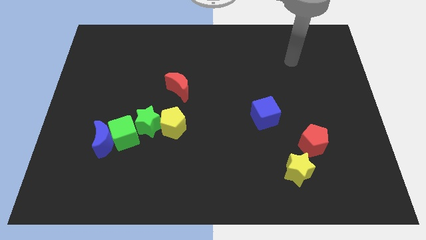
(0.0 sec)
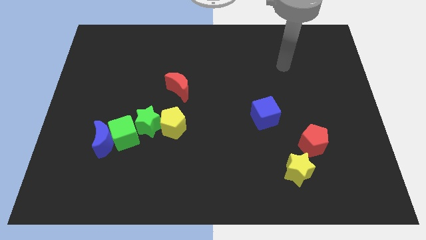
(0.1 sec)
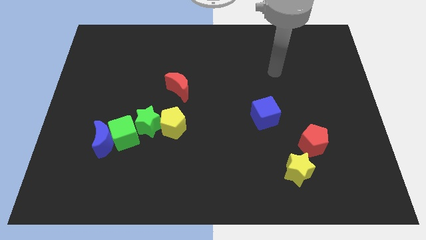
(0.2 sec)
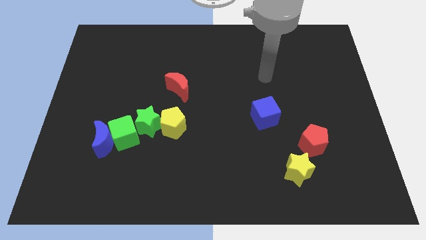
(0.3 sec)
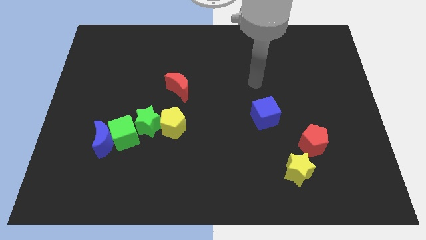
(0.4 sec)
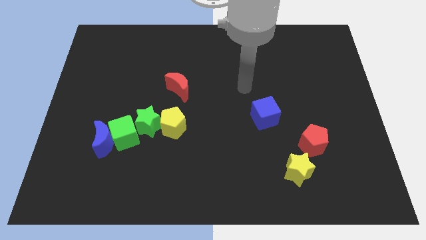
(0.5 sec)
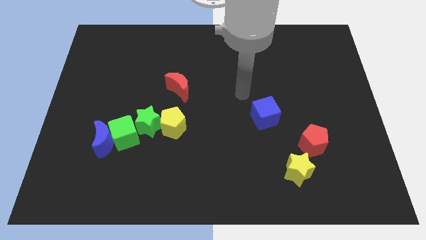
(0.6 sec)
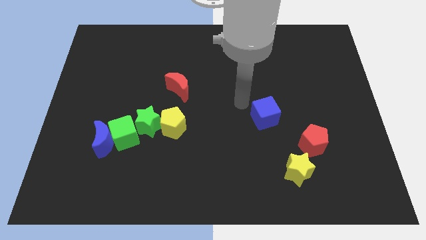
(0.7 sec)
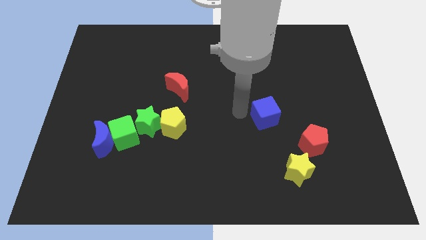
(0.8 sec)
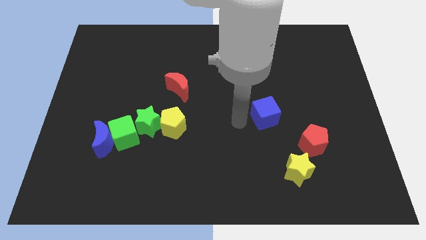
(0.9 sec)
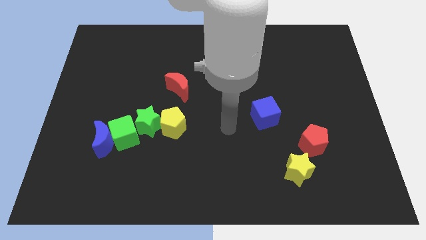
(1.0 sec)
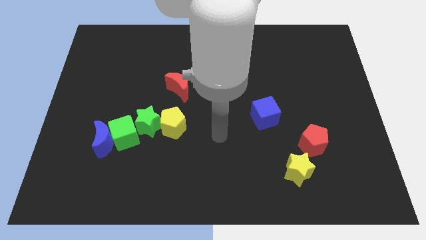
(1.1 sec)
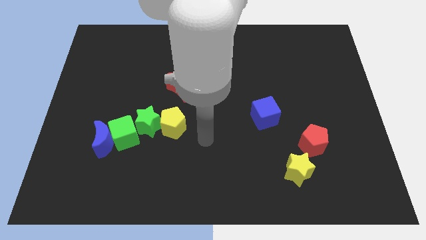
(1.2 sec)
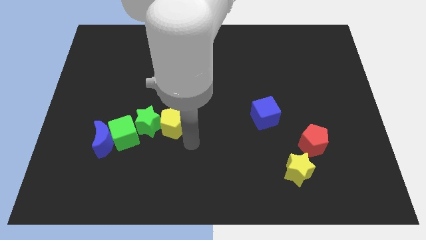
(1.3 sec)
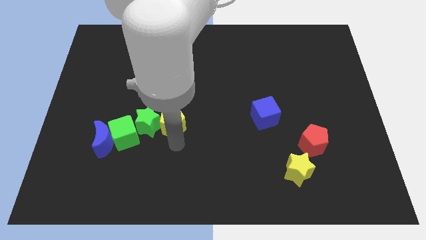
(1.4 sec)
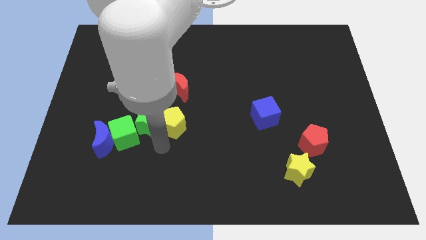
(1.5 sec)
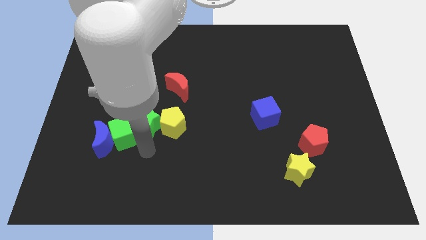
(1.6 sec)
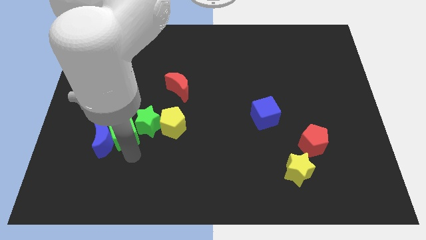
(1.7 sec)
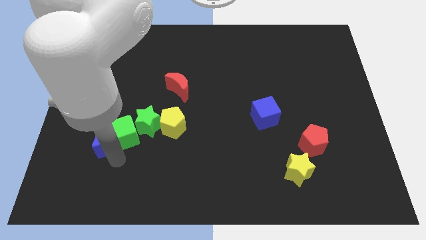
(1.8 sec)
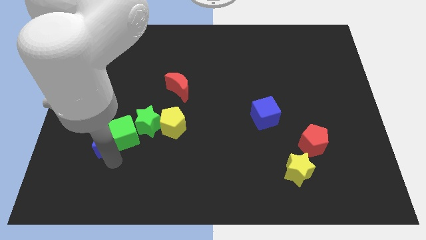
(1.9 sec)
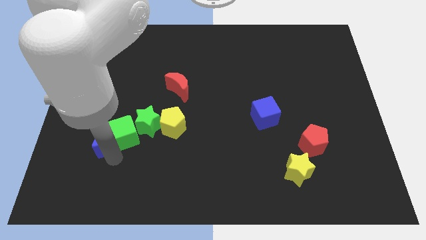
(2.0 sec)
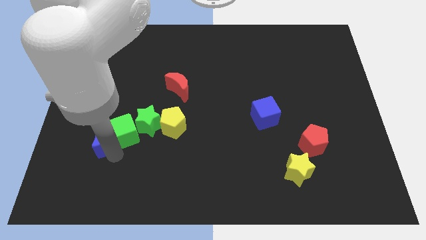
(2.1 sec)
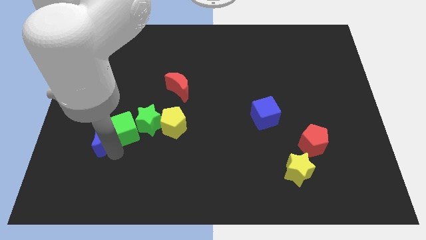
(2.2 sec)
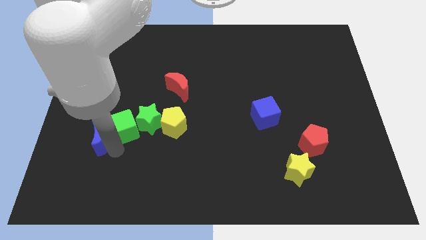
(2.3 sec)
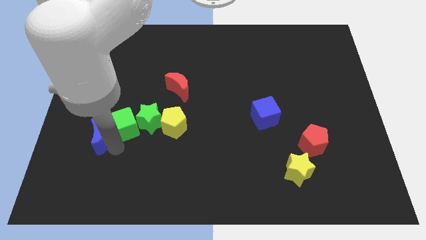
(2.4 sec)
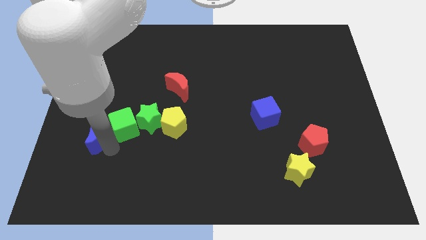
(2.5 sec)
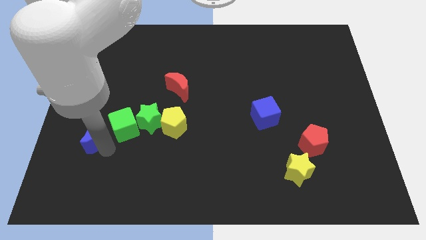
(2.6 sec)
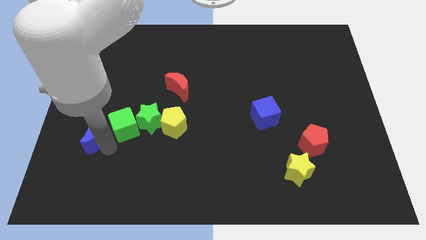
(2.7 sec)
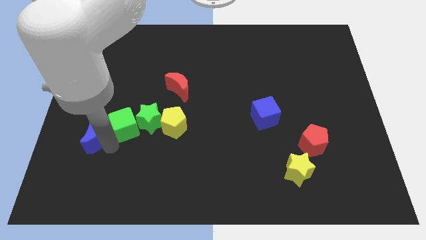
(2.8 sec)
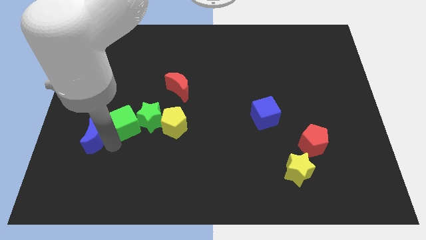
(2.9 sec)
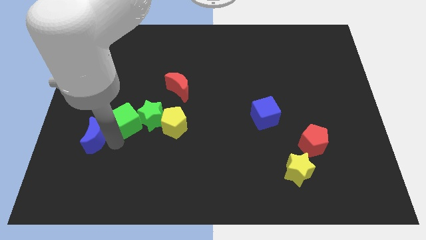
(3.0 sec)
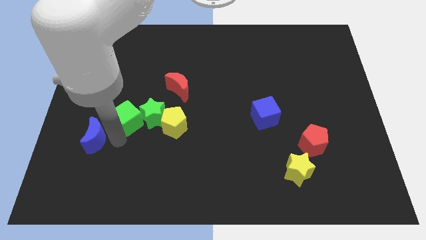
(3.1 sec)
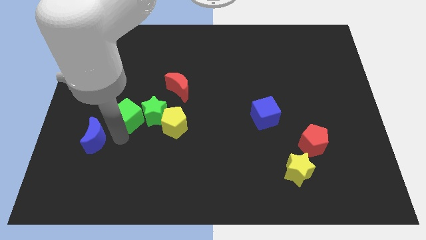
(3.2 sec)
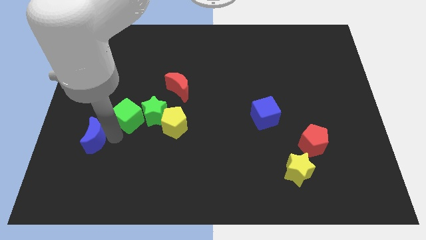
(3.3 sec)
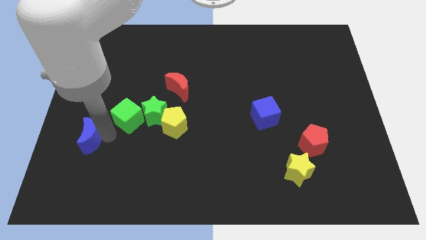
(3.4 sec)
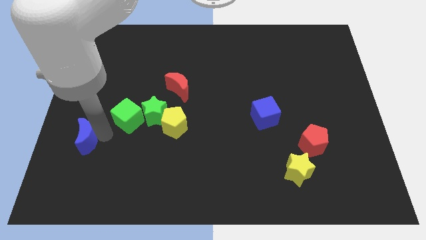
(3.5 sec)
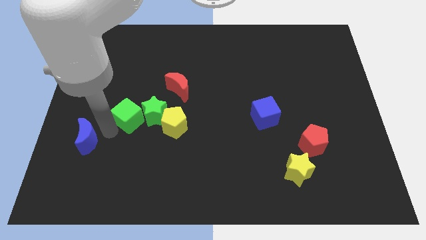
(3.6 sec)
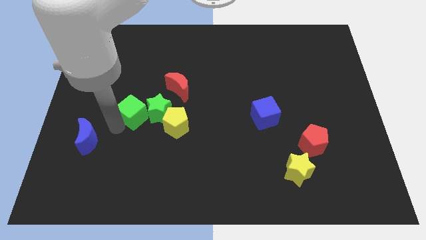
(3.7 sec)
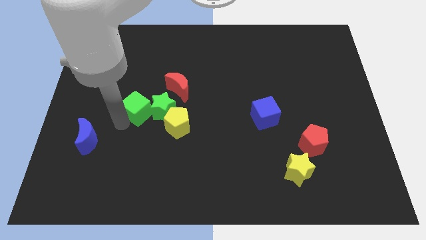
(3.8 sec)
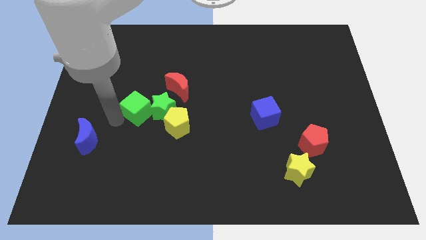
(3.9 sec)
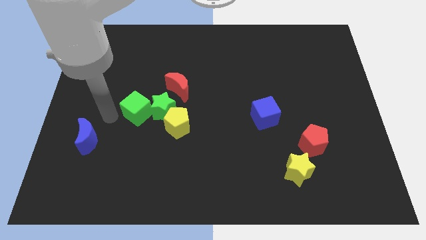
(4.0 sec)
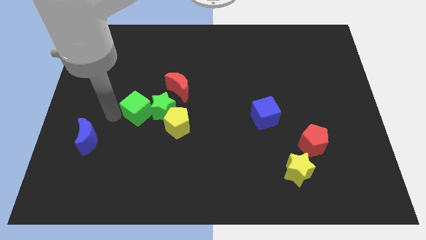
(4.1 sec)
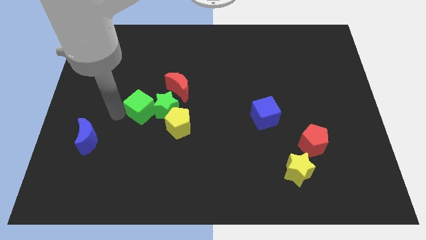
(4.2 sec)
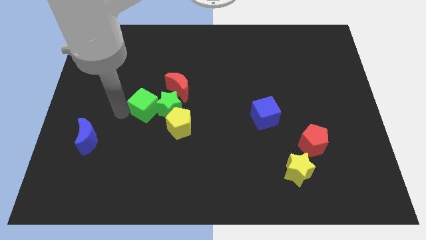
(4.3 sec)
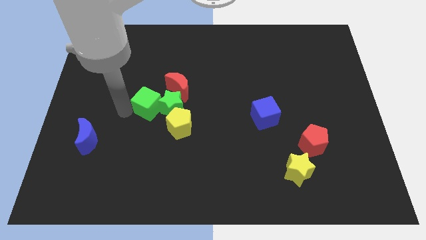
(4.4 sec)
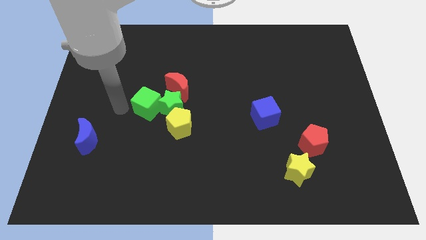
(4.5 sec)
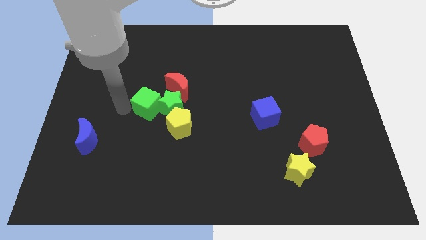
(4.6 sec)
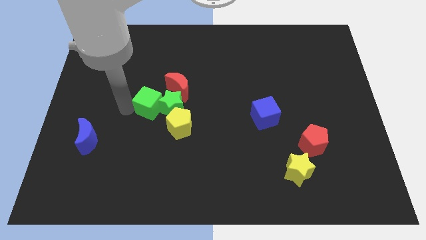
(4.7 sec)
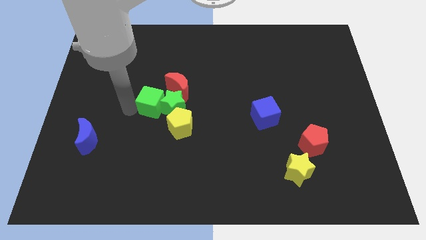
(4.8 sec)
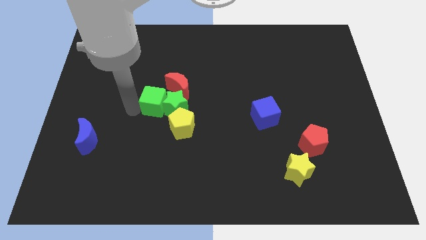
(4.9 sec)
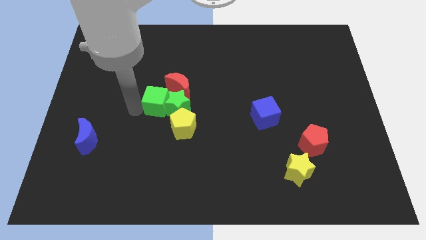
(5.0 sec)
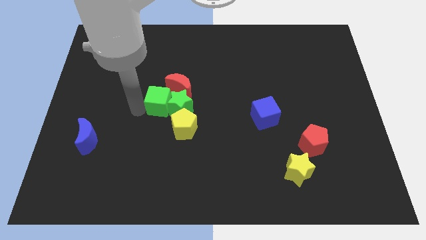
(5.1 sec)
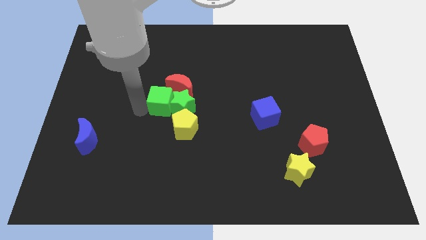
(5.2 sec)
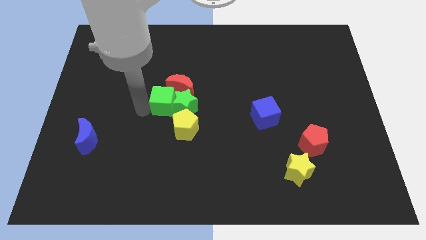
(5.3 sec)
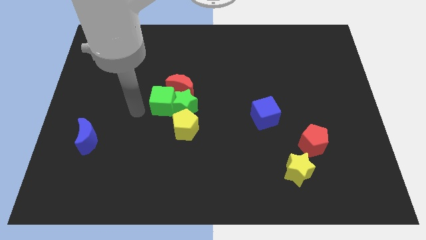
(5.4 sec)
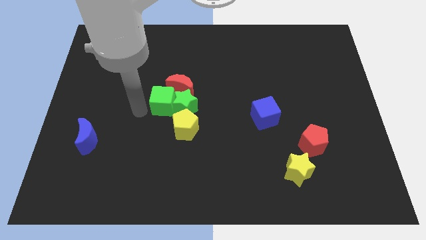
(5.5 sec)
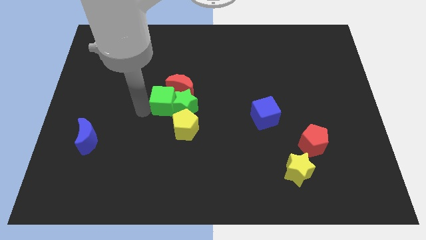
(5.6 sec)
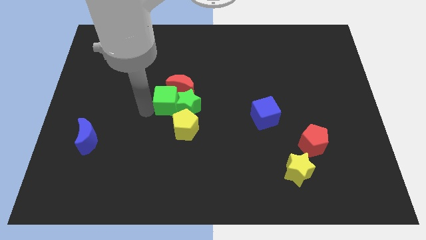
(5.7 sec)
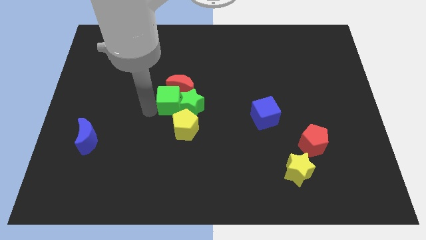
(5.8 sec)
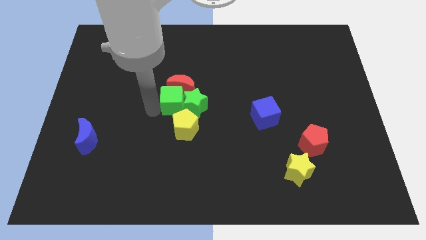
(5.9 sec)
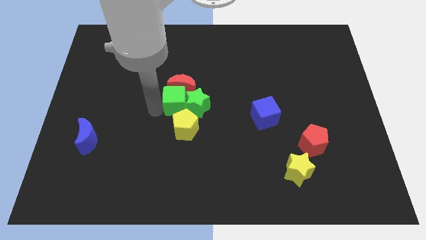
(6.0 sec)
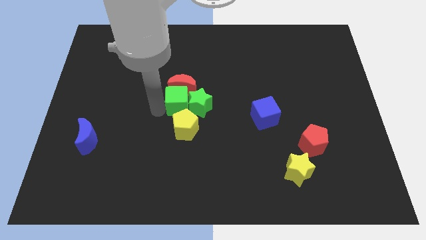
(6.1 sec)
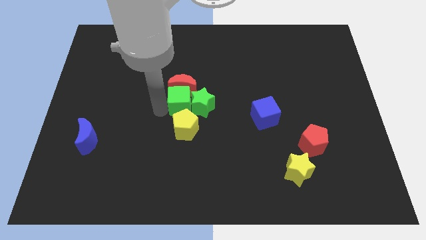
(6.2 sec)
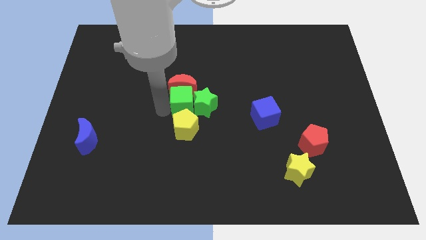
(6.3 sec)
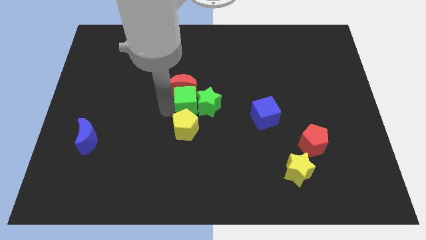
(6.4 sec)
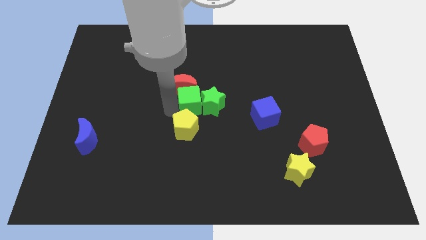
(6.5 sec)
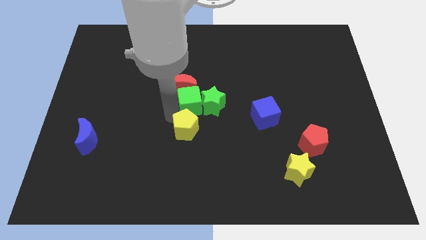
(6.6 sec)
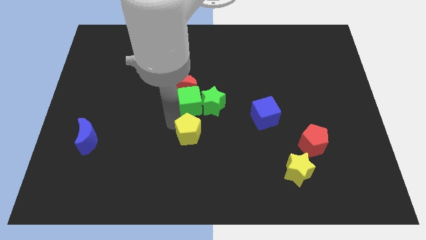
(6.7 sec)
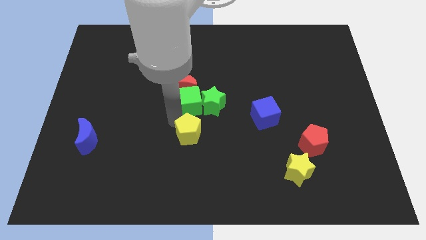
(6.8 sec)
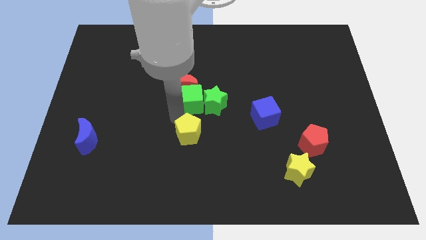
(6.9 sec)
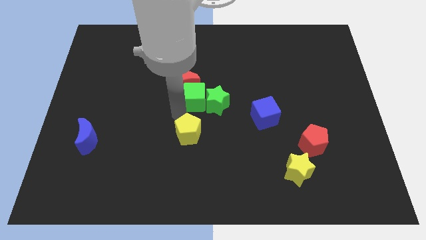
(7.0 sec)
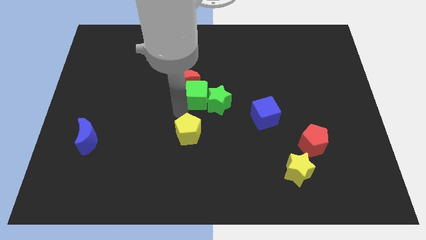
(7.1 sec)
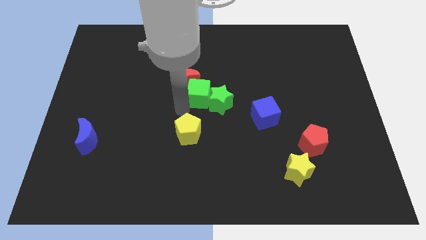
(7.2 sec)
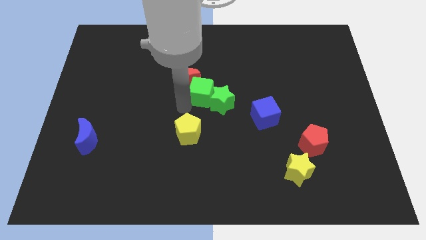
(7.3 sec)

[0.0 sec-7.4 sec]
slide the green cube diagonally up and right

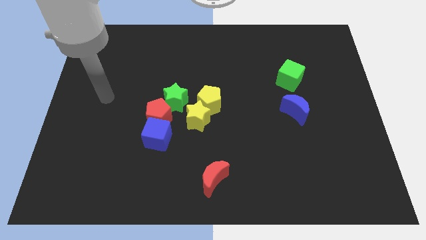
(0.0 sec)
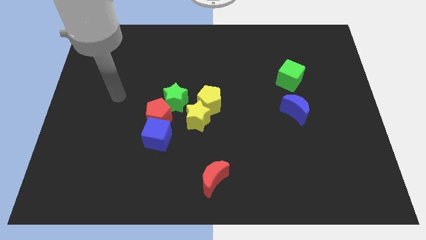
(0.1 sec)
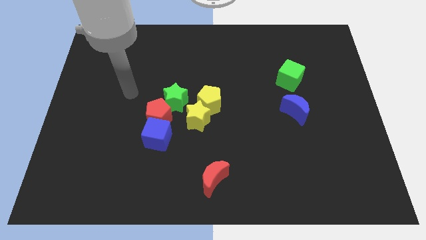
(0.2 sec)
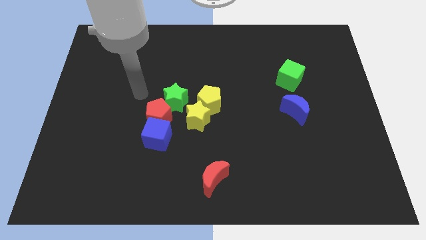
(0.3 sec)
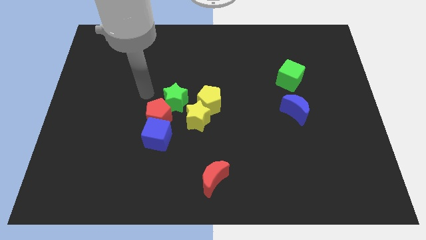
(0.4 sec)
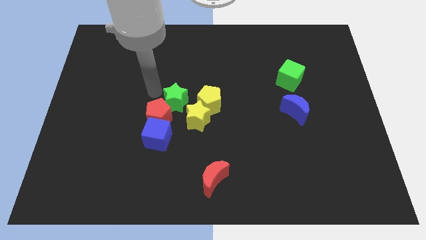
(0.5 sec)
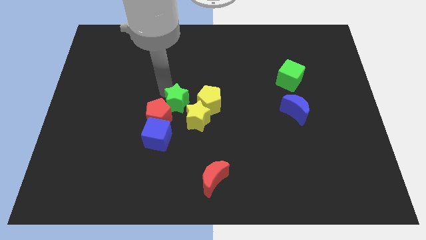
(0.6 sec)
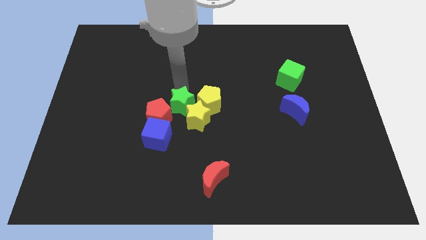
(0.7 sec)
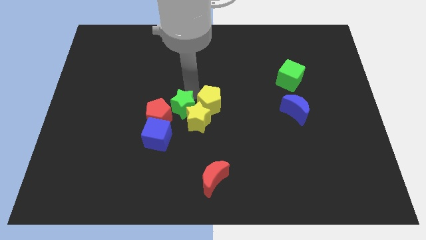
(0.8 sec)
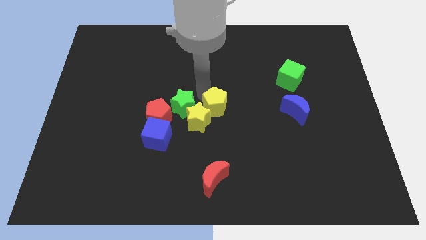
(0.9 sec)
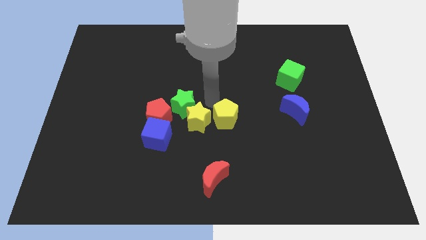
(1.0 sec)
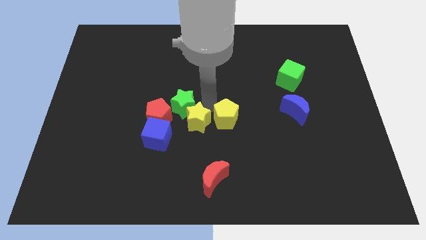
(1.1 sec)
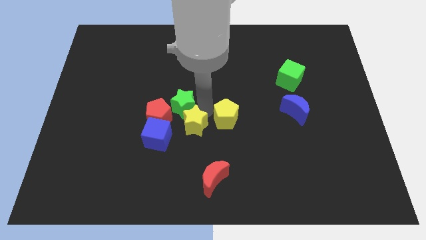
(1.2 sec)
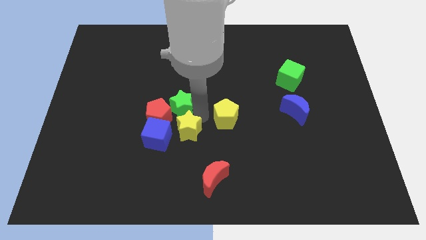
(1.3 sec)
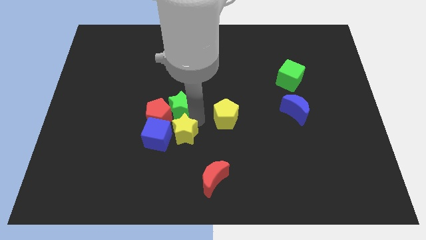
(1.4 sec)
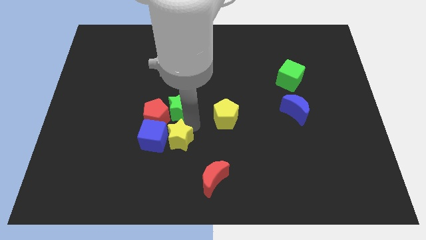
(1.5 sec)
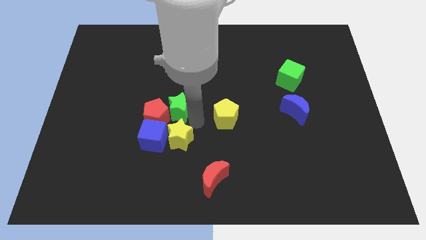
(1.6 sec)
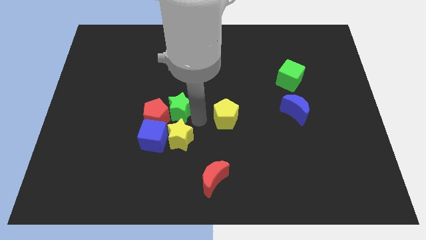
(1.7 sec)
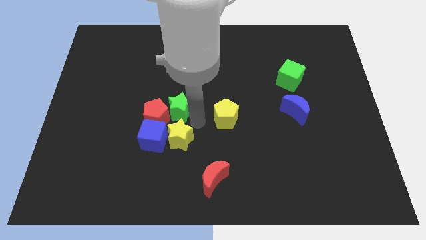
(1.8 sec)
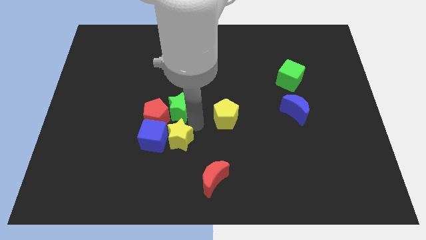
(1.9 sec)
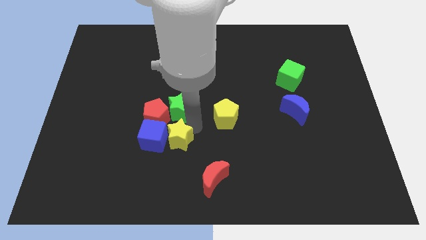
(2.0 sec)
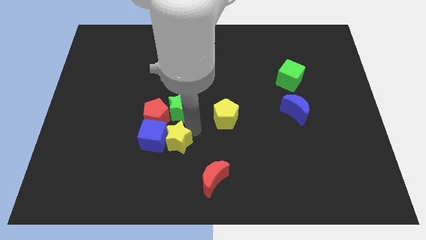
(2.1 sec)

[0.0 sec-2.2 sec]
push the yellow star a little down and left diagonally
